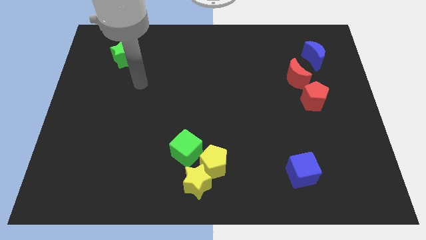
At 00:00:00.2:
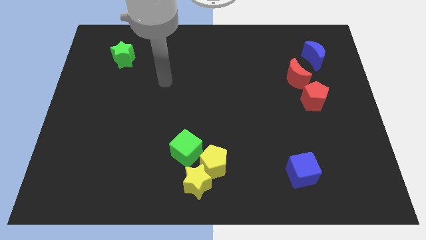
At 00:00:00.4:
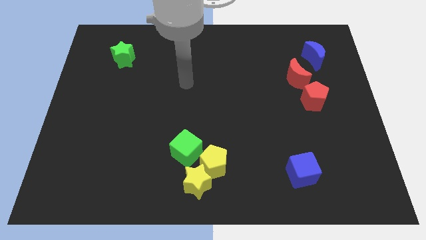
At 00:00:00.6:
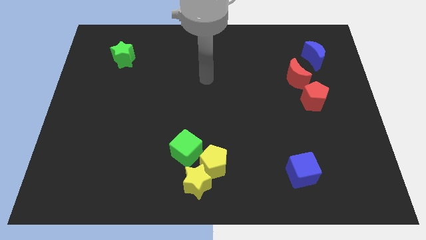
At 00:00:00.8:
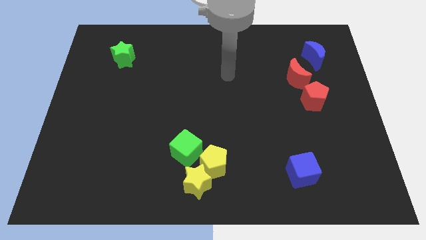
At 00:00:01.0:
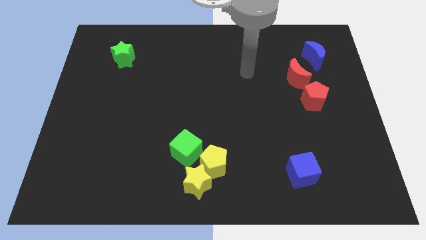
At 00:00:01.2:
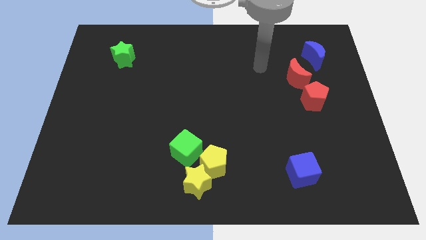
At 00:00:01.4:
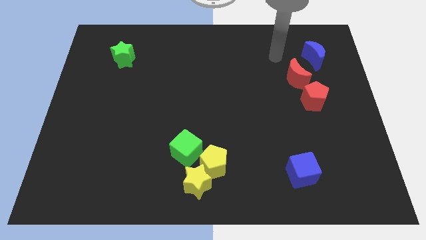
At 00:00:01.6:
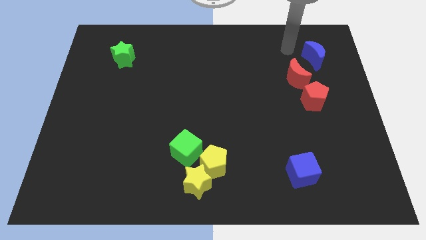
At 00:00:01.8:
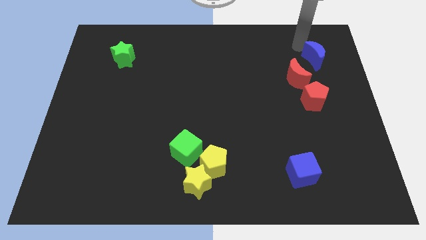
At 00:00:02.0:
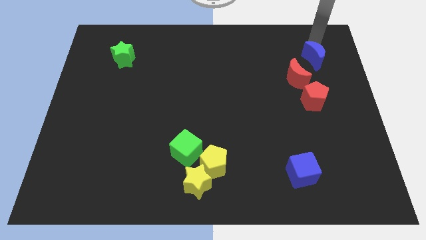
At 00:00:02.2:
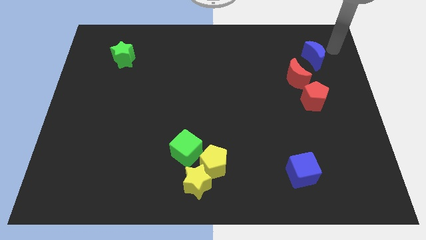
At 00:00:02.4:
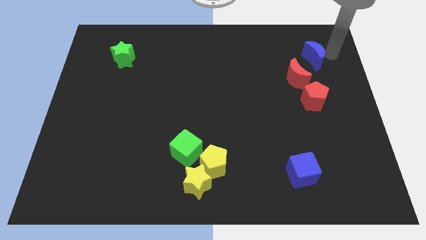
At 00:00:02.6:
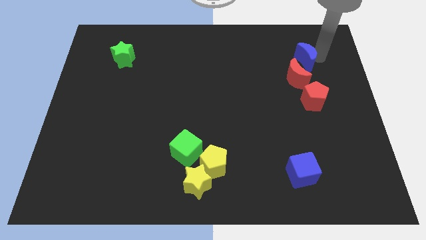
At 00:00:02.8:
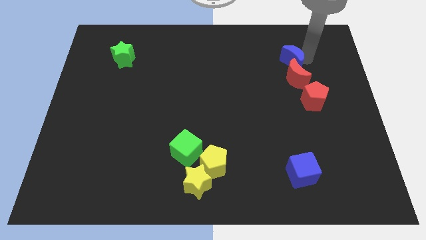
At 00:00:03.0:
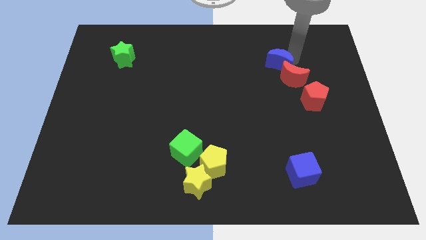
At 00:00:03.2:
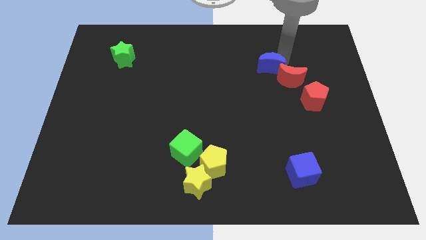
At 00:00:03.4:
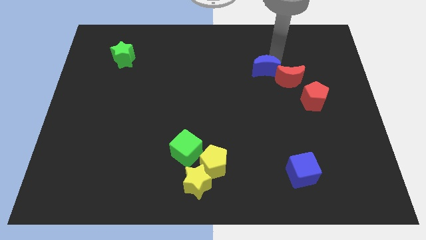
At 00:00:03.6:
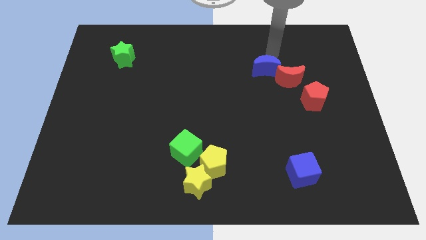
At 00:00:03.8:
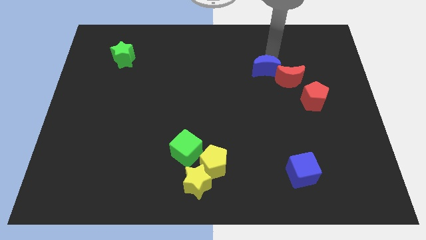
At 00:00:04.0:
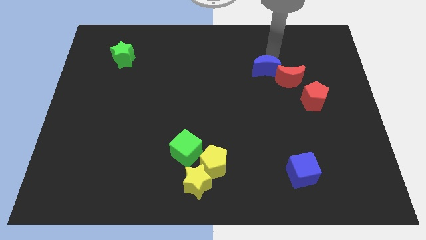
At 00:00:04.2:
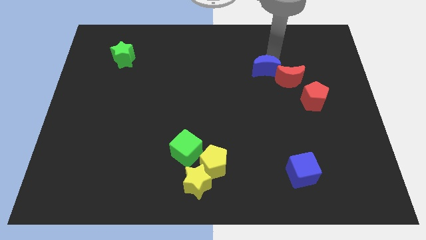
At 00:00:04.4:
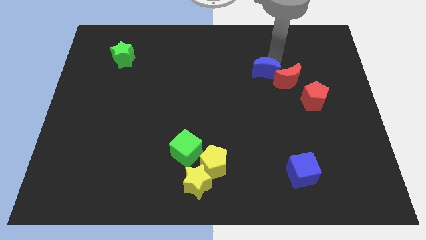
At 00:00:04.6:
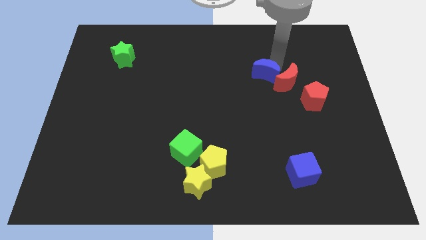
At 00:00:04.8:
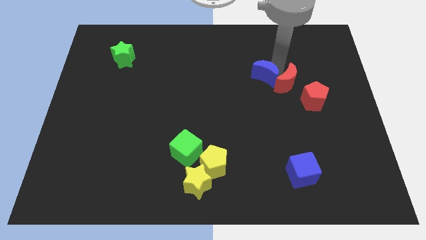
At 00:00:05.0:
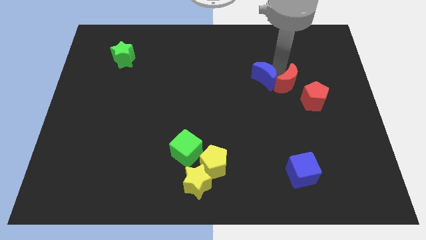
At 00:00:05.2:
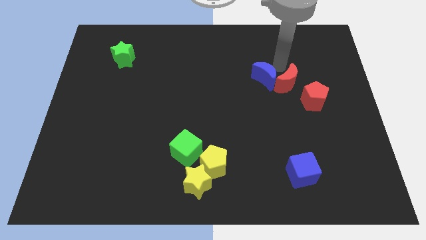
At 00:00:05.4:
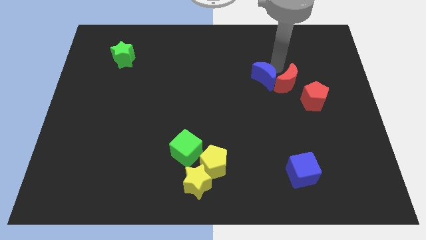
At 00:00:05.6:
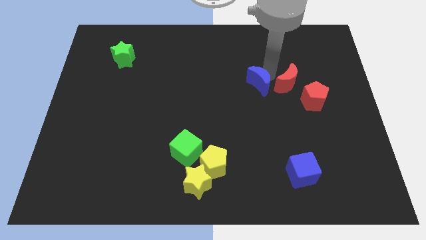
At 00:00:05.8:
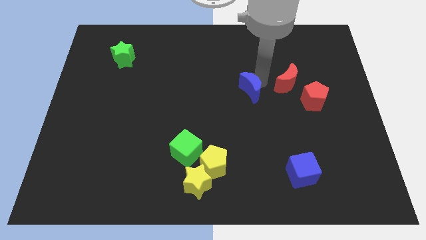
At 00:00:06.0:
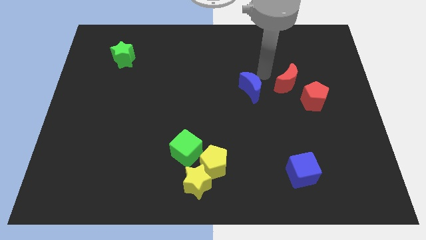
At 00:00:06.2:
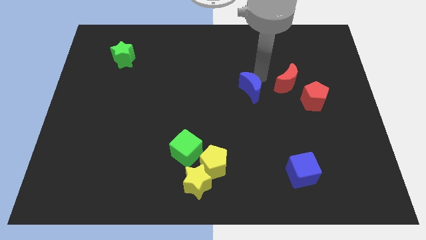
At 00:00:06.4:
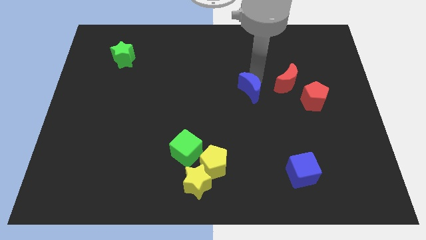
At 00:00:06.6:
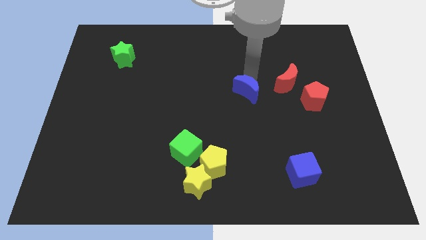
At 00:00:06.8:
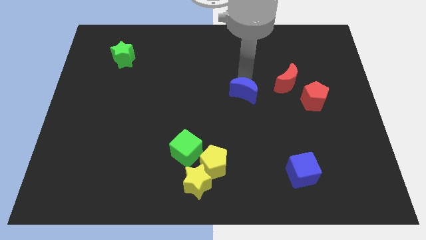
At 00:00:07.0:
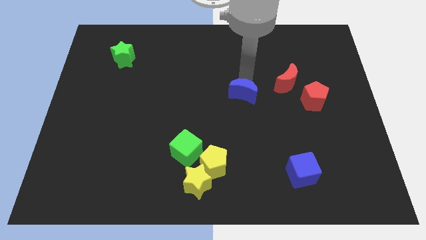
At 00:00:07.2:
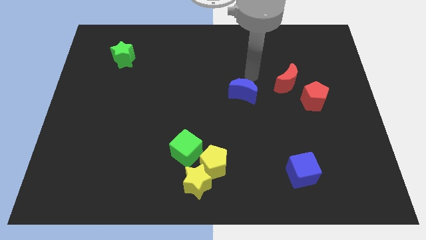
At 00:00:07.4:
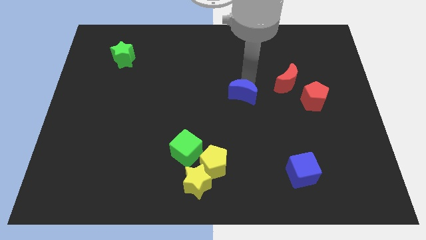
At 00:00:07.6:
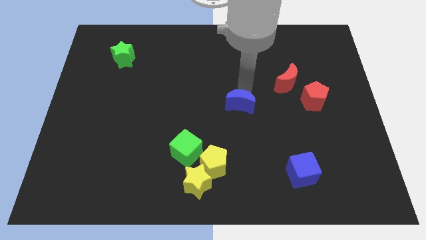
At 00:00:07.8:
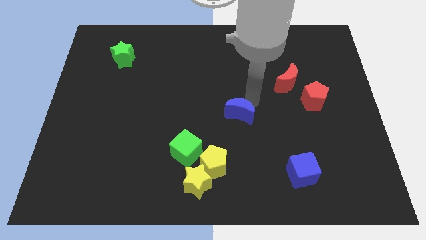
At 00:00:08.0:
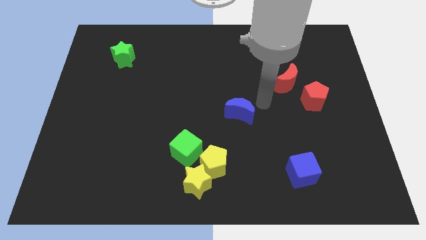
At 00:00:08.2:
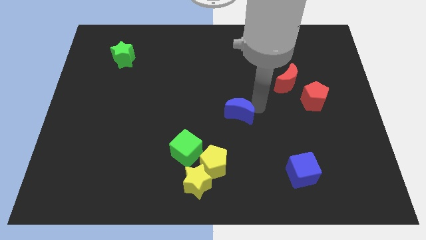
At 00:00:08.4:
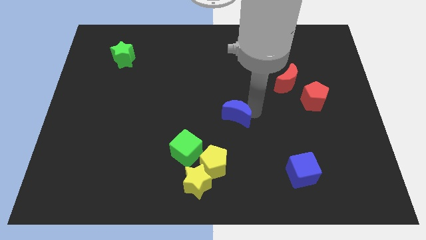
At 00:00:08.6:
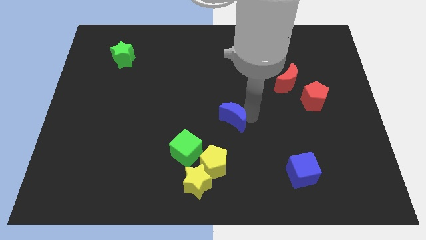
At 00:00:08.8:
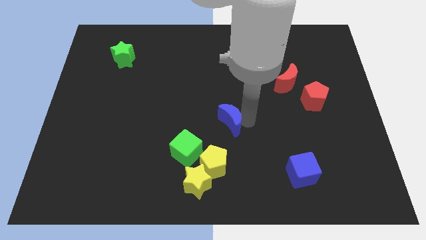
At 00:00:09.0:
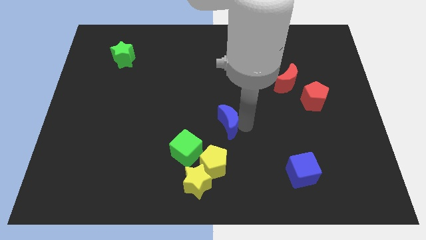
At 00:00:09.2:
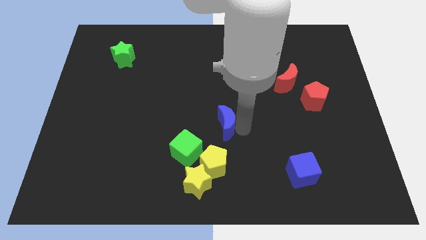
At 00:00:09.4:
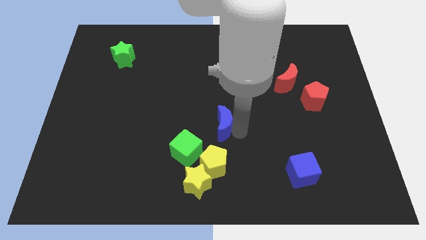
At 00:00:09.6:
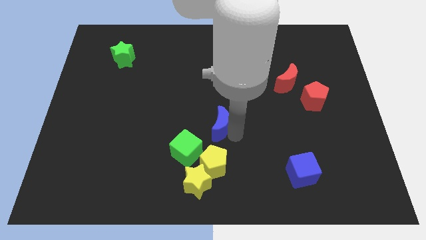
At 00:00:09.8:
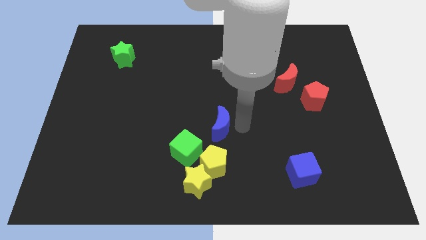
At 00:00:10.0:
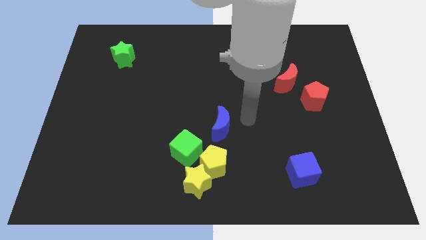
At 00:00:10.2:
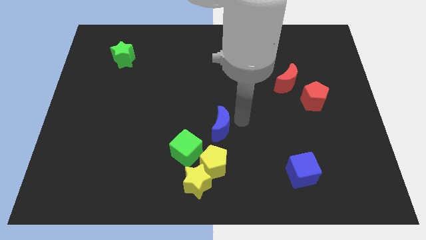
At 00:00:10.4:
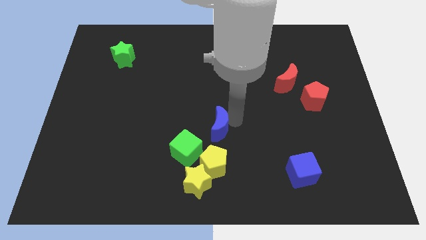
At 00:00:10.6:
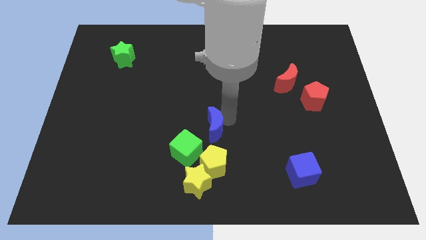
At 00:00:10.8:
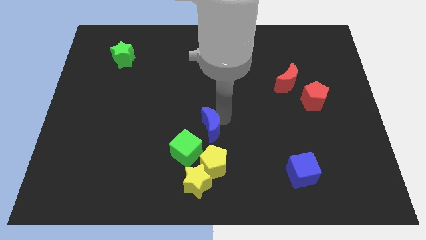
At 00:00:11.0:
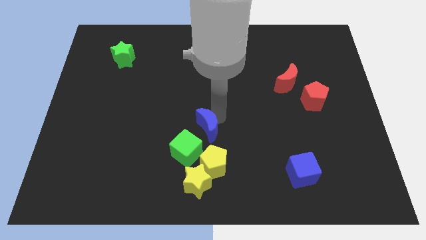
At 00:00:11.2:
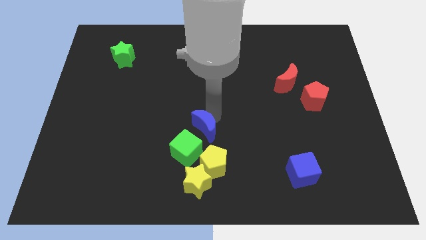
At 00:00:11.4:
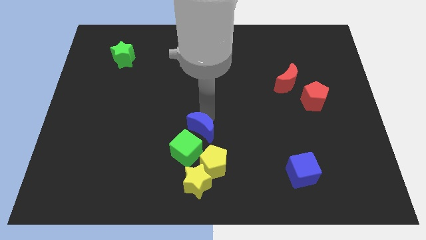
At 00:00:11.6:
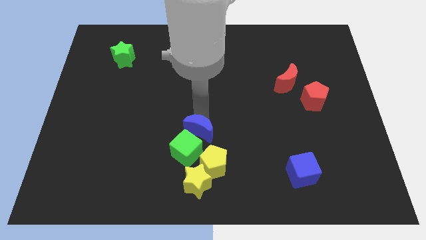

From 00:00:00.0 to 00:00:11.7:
slide the blue moon to the green cube

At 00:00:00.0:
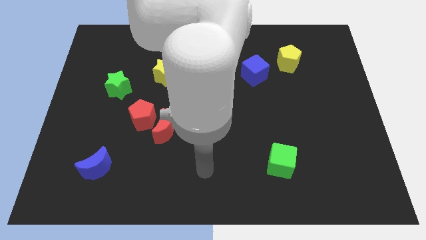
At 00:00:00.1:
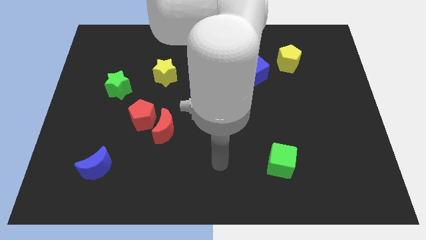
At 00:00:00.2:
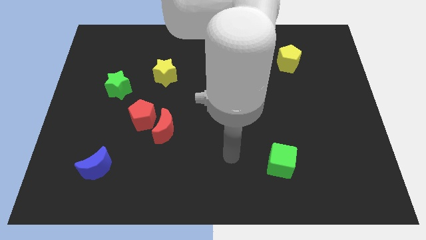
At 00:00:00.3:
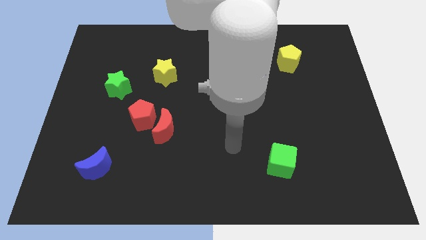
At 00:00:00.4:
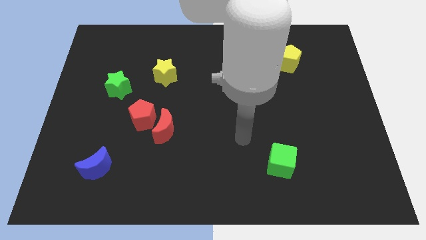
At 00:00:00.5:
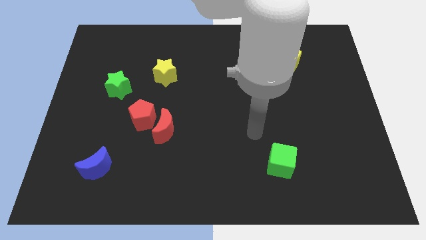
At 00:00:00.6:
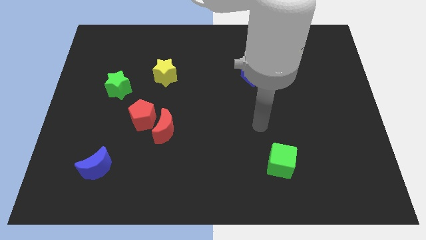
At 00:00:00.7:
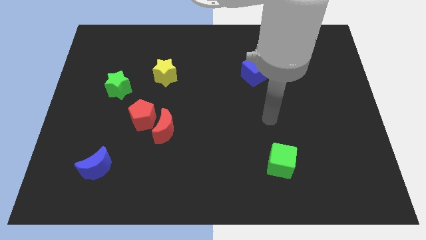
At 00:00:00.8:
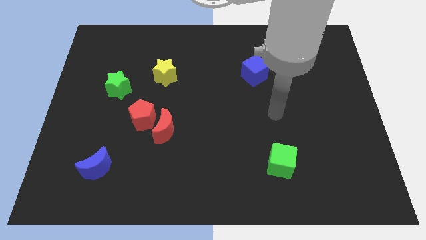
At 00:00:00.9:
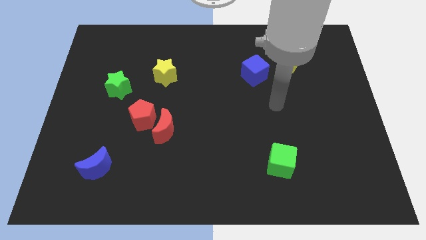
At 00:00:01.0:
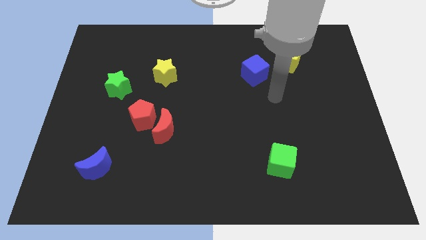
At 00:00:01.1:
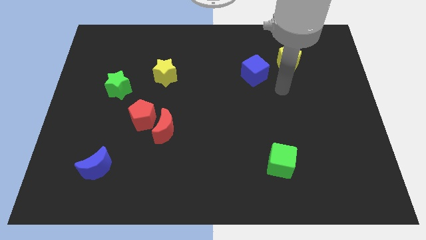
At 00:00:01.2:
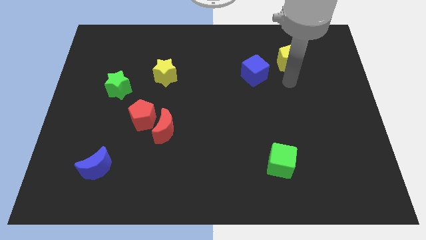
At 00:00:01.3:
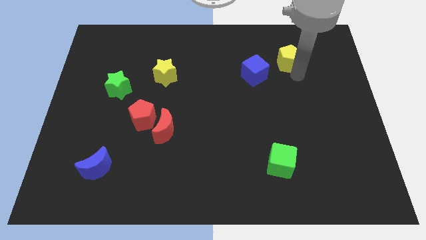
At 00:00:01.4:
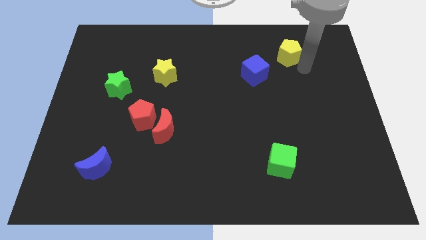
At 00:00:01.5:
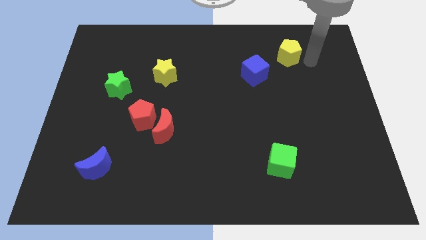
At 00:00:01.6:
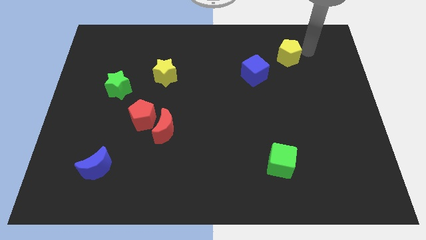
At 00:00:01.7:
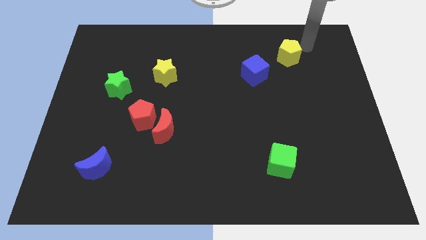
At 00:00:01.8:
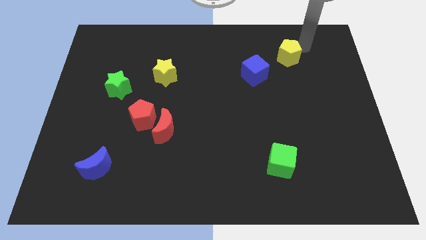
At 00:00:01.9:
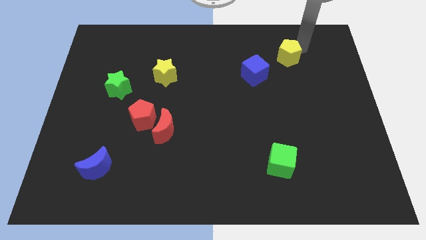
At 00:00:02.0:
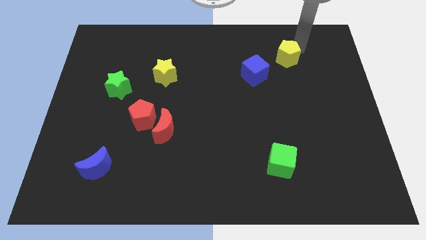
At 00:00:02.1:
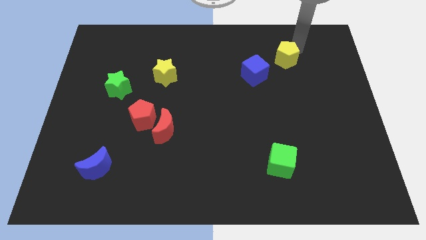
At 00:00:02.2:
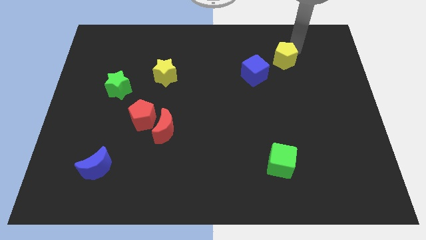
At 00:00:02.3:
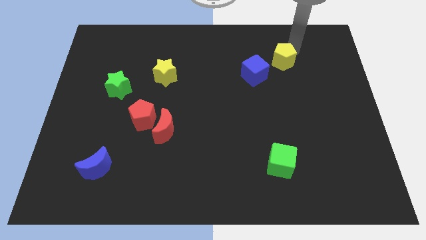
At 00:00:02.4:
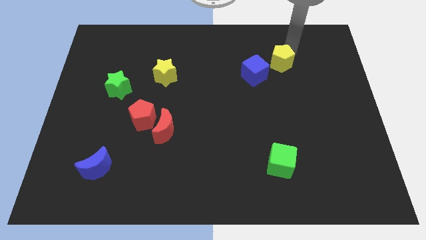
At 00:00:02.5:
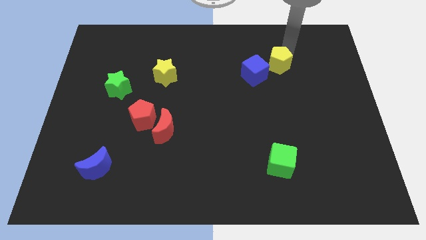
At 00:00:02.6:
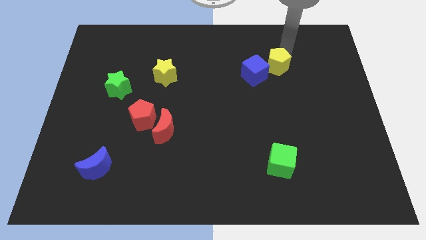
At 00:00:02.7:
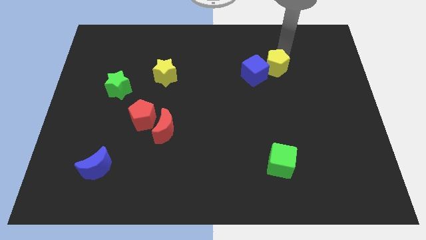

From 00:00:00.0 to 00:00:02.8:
move the yellow pentagon close to the blue cube
